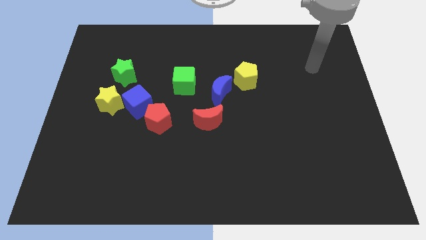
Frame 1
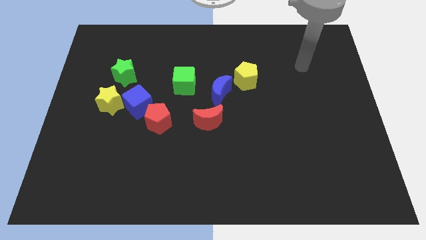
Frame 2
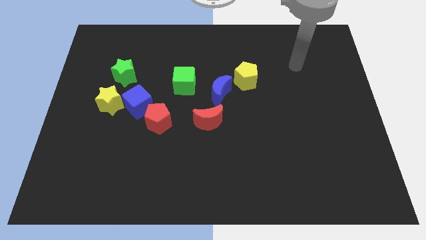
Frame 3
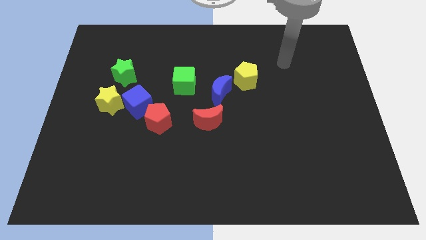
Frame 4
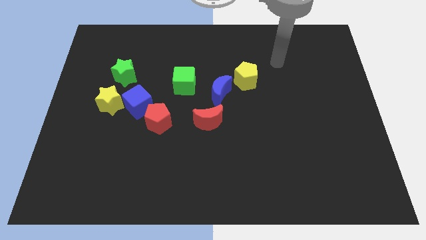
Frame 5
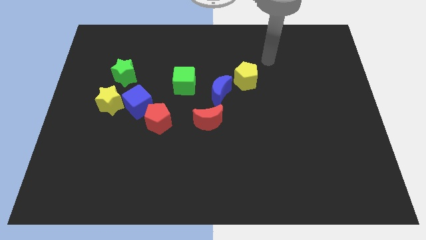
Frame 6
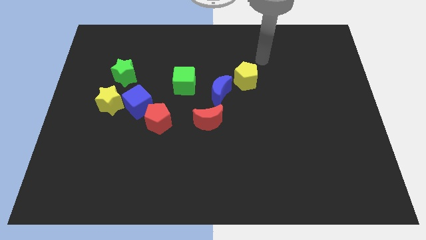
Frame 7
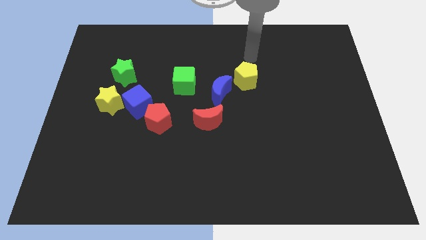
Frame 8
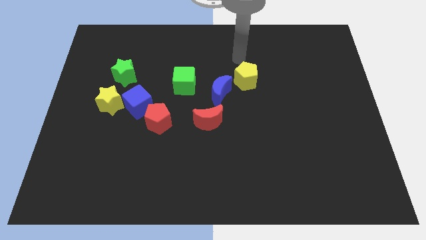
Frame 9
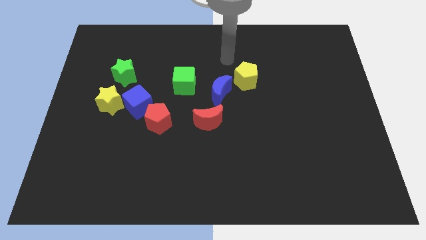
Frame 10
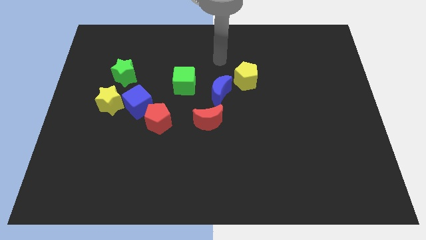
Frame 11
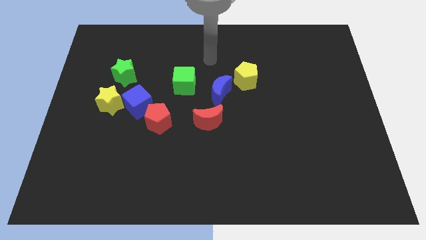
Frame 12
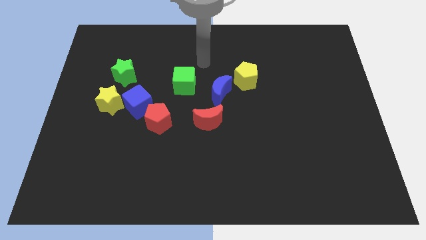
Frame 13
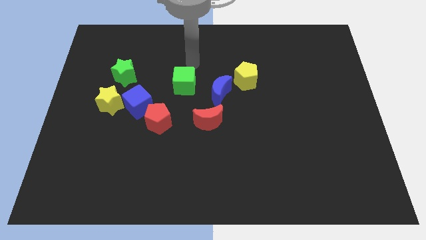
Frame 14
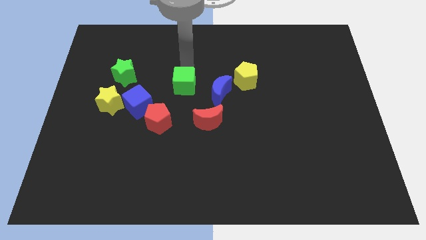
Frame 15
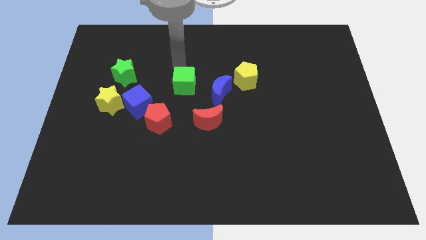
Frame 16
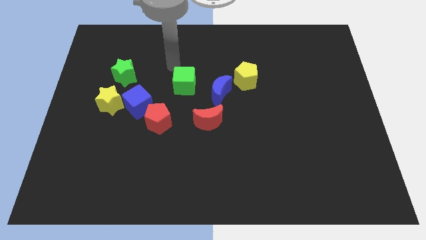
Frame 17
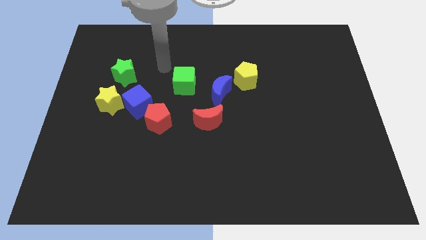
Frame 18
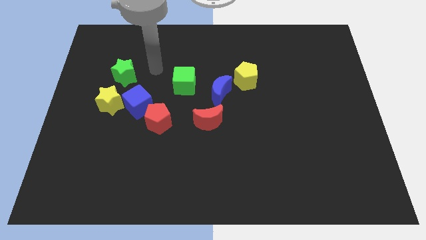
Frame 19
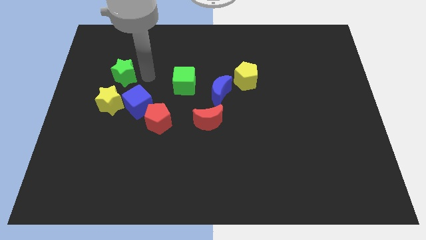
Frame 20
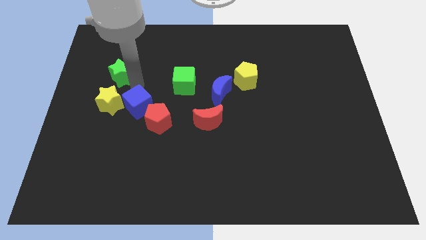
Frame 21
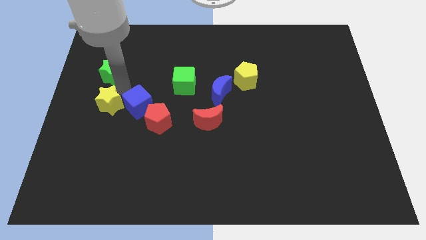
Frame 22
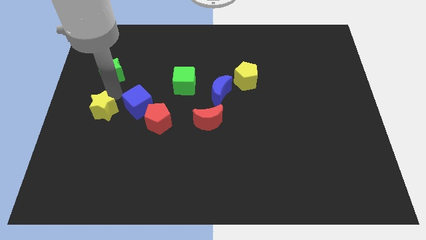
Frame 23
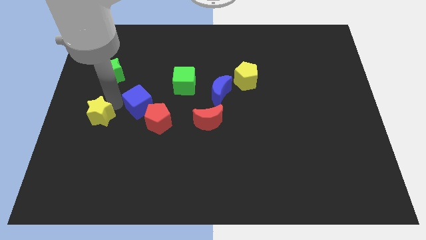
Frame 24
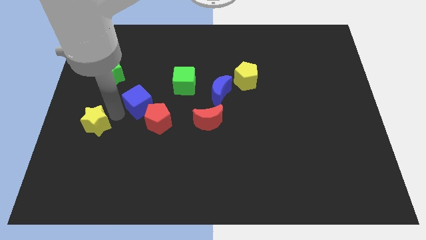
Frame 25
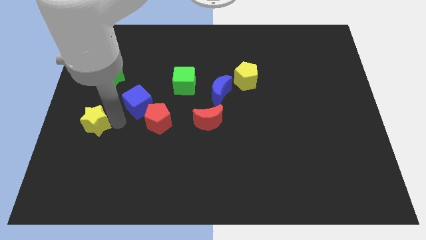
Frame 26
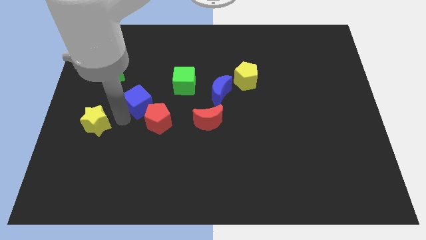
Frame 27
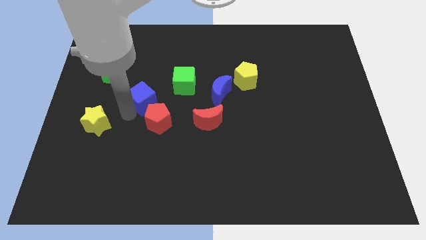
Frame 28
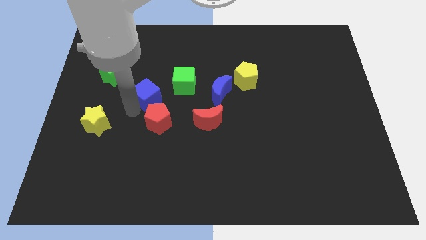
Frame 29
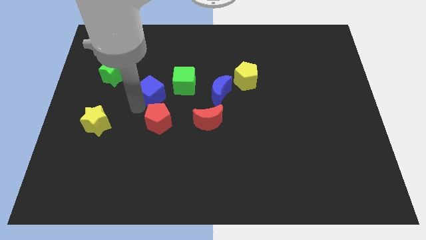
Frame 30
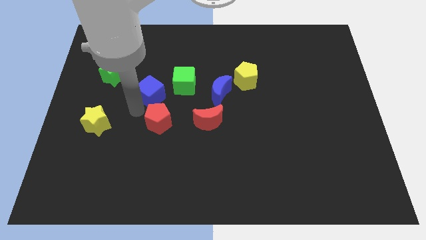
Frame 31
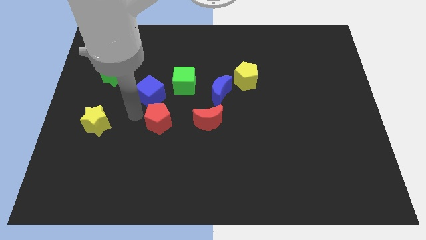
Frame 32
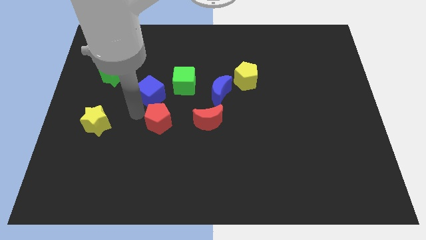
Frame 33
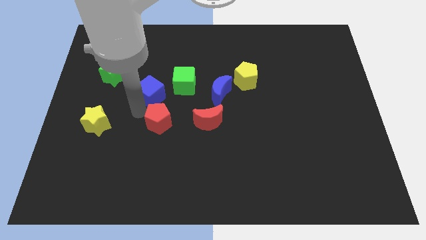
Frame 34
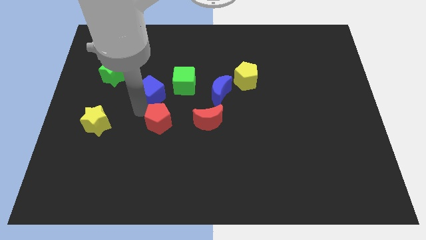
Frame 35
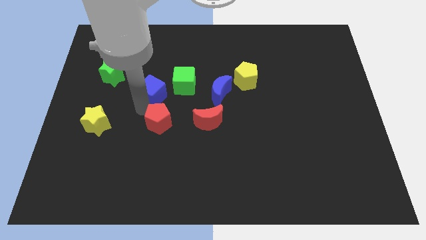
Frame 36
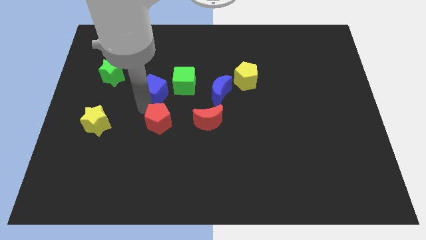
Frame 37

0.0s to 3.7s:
pull the blue cube apart from the yellow star and red pentagon

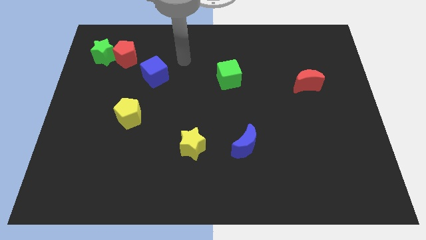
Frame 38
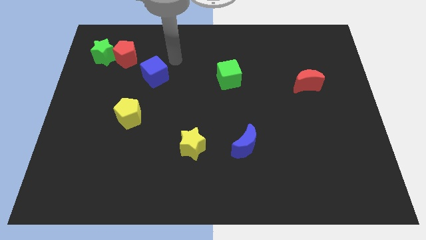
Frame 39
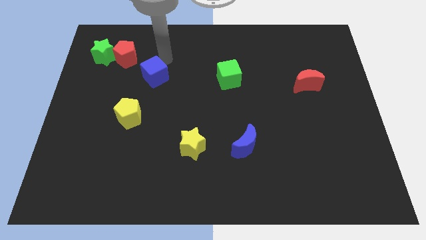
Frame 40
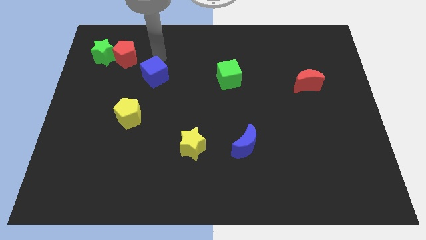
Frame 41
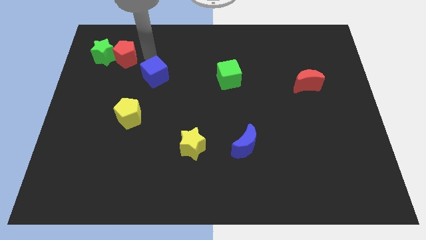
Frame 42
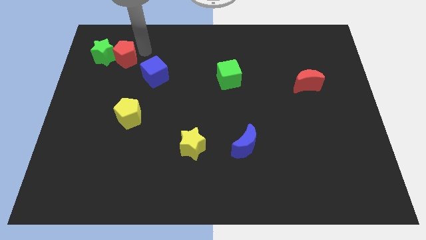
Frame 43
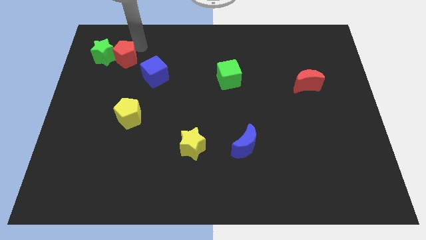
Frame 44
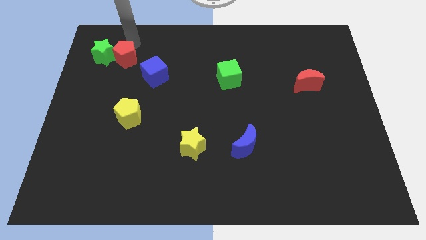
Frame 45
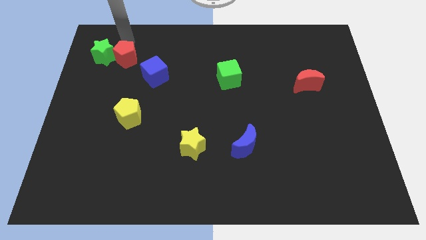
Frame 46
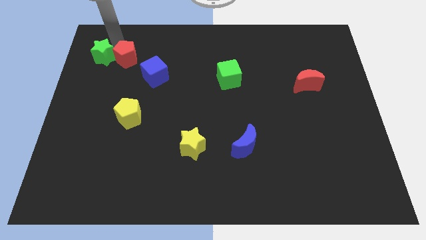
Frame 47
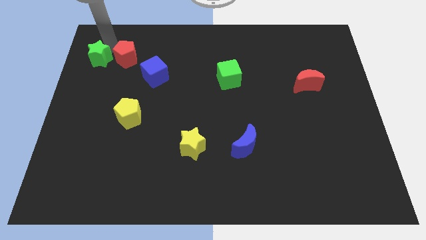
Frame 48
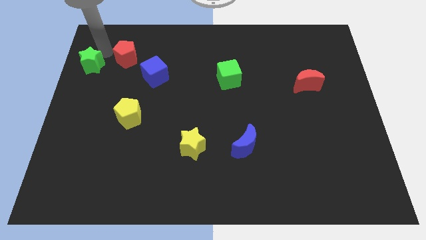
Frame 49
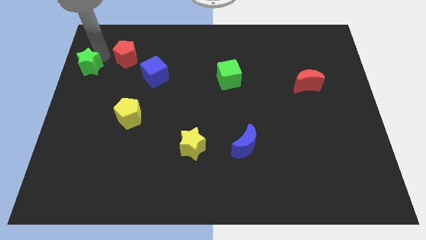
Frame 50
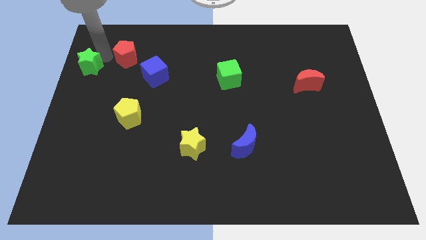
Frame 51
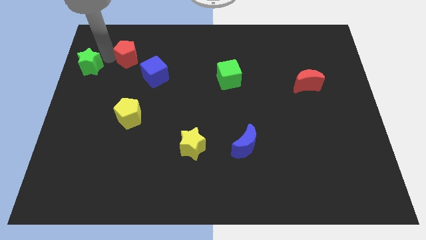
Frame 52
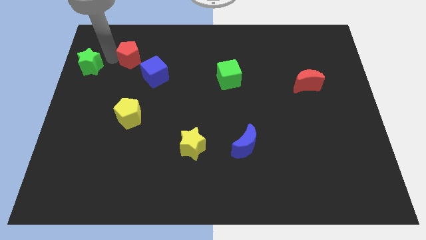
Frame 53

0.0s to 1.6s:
pull the red pentagon apart from the green star

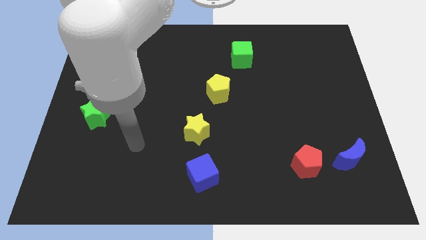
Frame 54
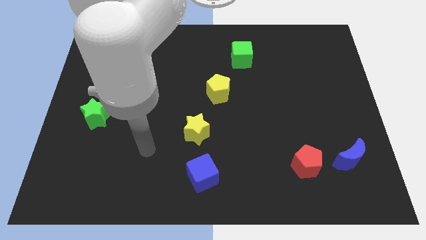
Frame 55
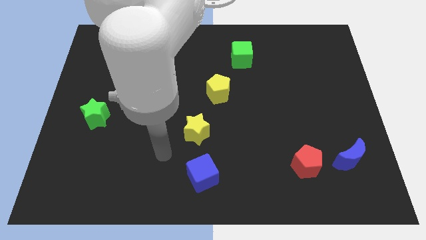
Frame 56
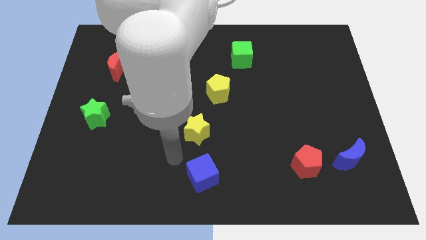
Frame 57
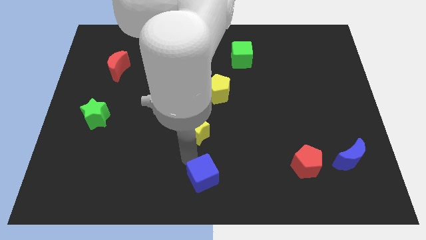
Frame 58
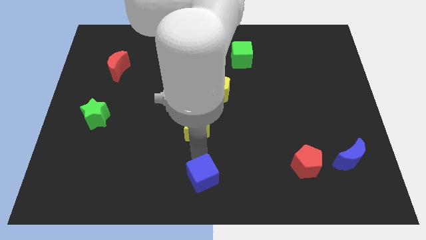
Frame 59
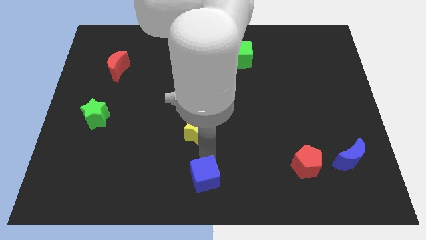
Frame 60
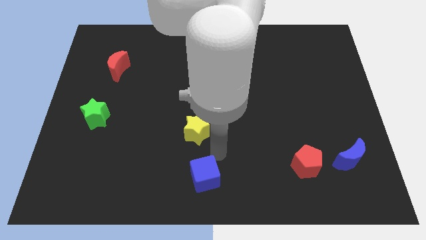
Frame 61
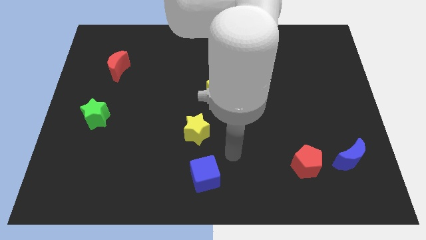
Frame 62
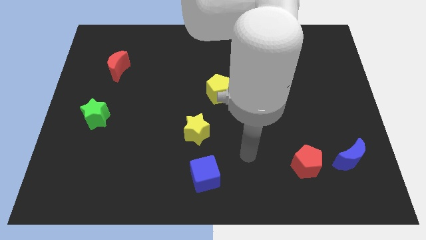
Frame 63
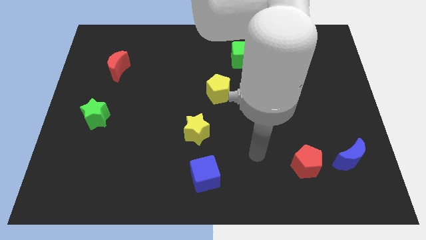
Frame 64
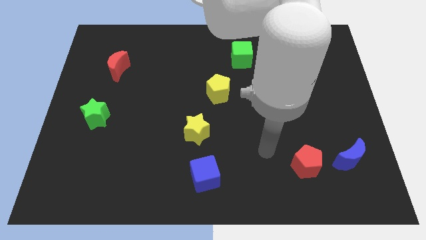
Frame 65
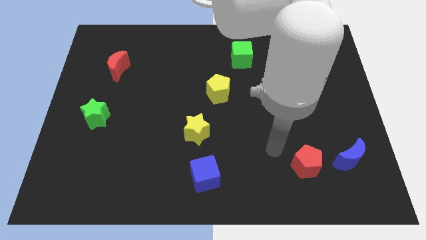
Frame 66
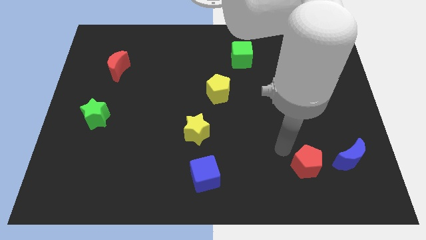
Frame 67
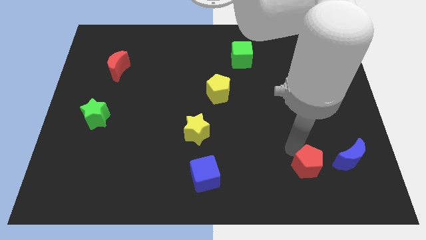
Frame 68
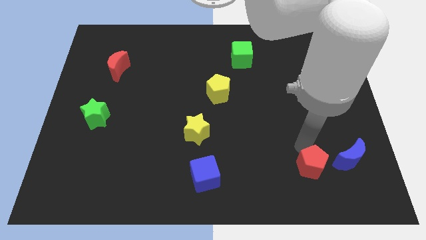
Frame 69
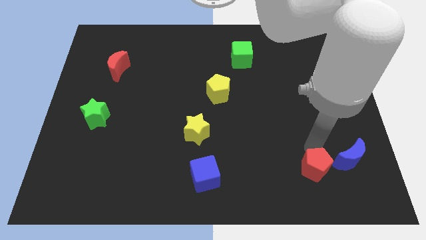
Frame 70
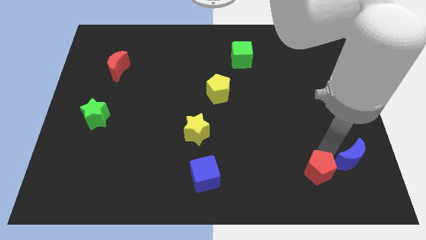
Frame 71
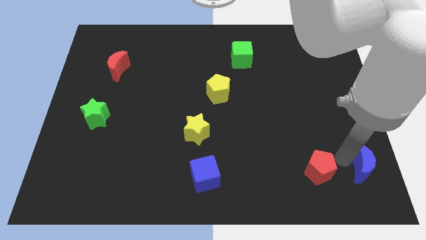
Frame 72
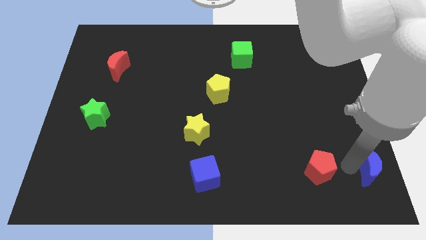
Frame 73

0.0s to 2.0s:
separate the red pentagon from the blue moon

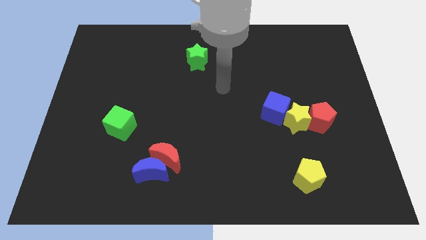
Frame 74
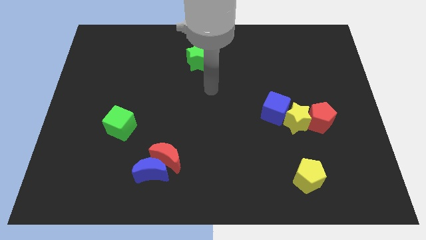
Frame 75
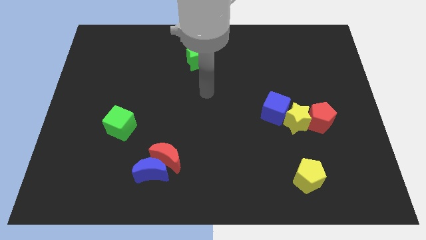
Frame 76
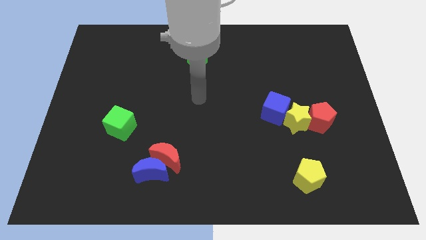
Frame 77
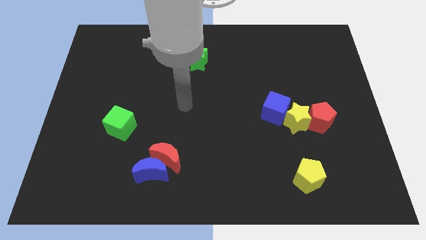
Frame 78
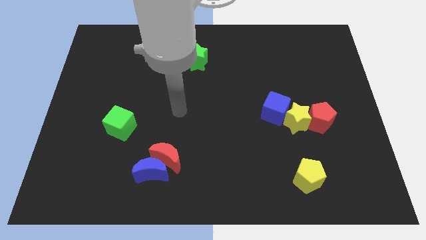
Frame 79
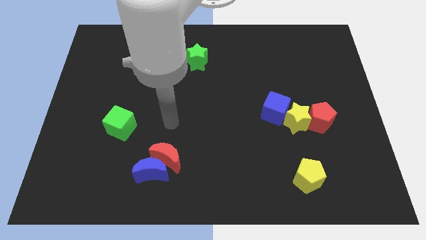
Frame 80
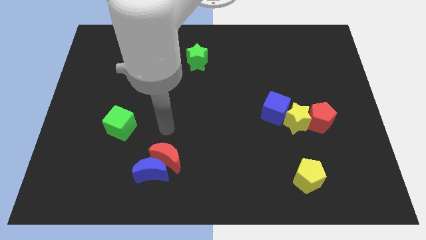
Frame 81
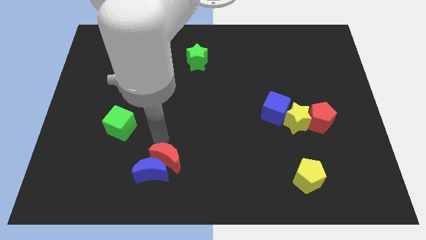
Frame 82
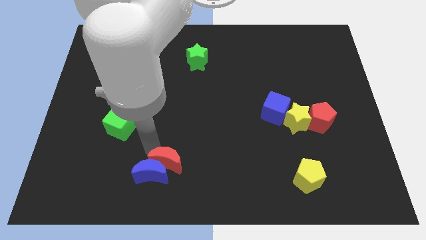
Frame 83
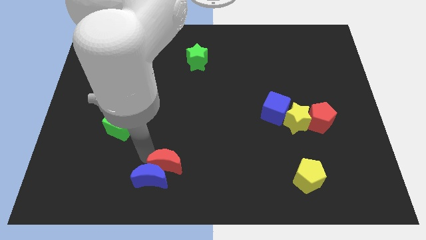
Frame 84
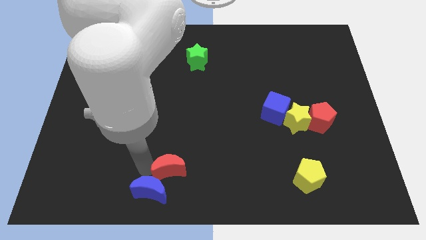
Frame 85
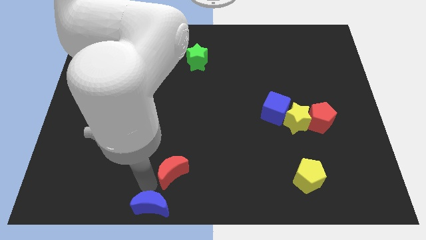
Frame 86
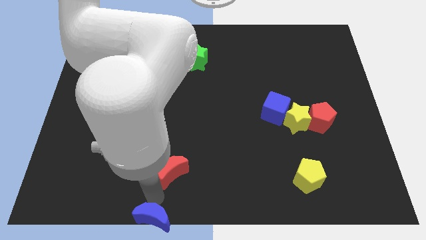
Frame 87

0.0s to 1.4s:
move the red moon away from the blue moon

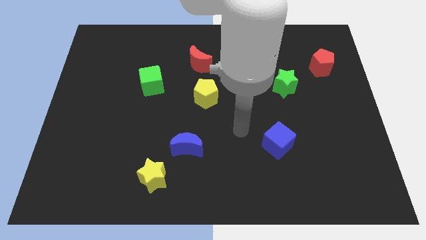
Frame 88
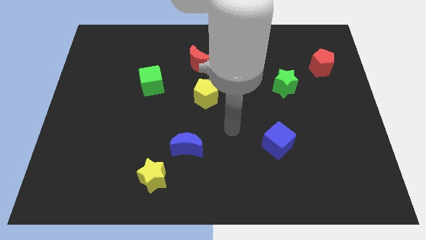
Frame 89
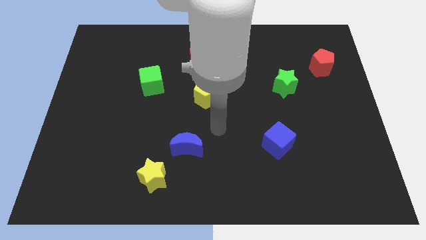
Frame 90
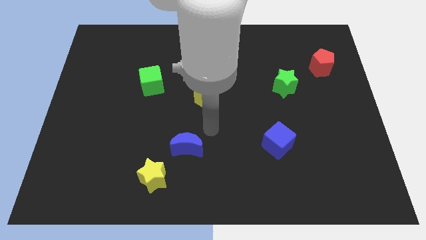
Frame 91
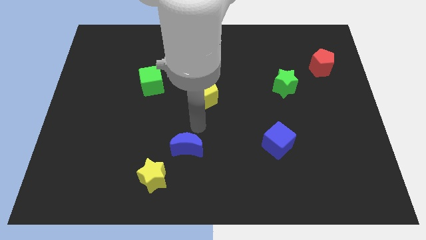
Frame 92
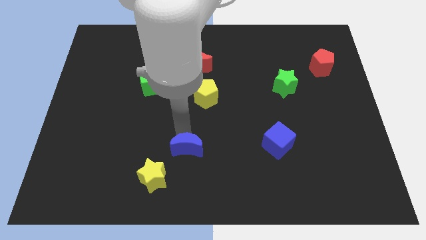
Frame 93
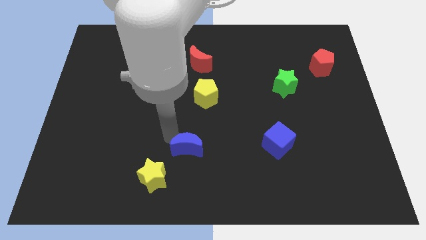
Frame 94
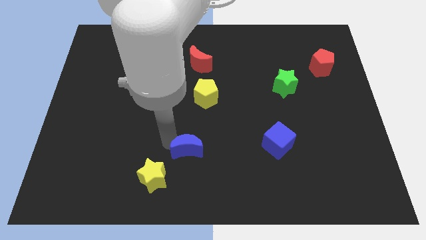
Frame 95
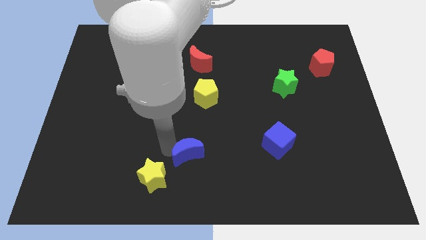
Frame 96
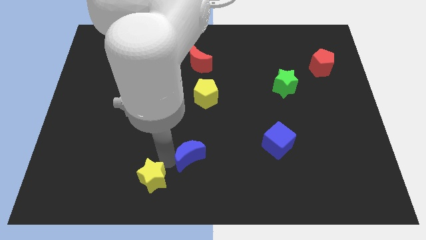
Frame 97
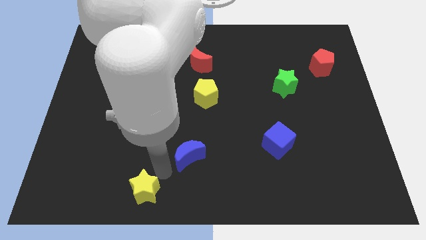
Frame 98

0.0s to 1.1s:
pull the blue moon apart from the yellow star
